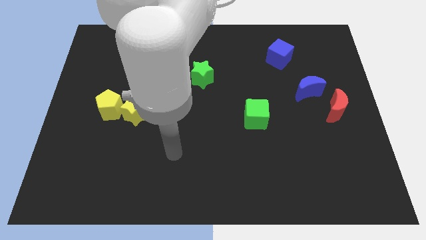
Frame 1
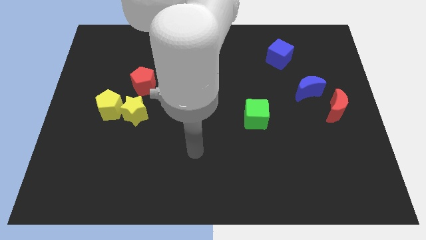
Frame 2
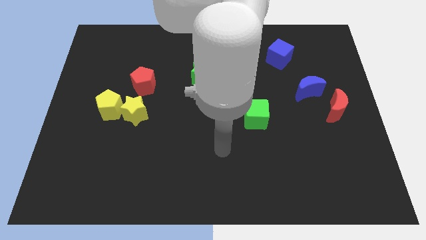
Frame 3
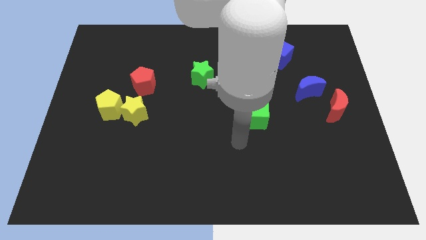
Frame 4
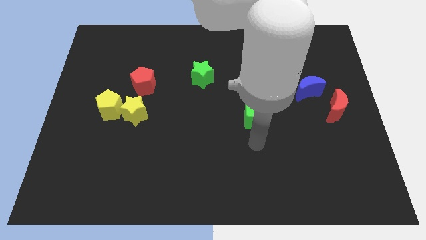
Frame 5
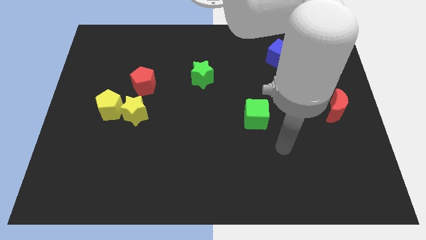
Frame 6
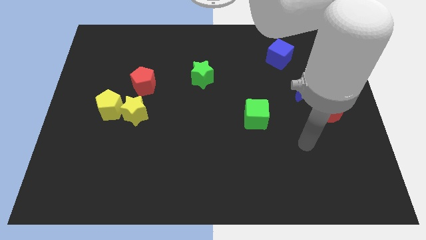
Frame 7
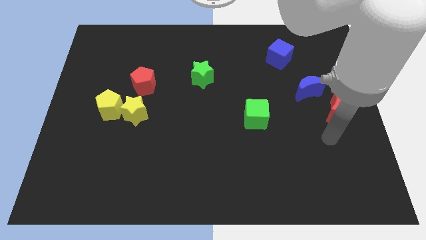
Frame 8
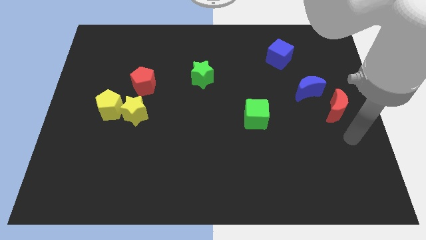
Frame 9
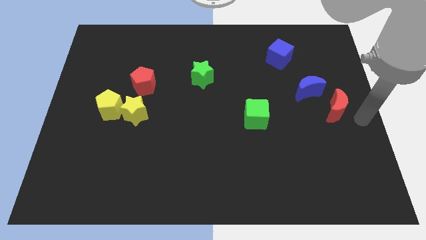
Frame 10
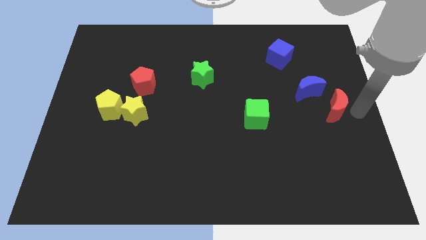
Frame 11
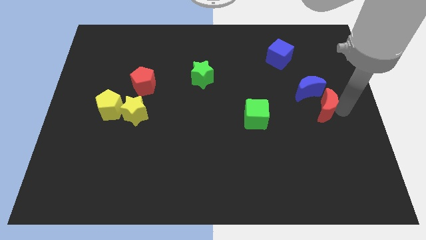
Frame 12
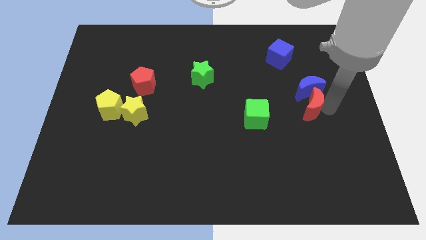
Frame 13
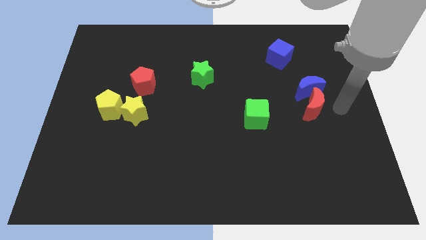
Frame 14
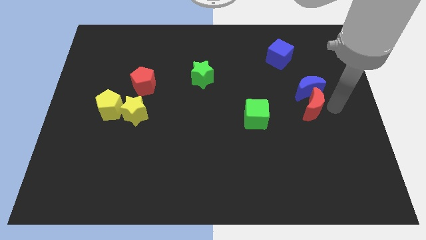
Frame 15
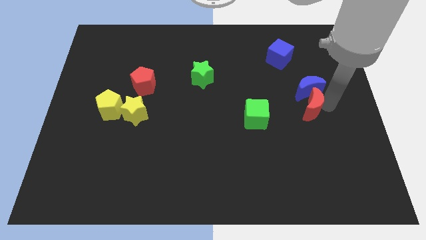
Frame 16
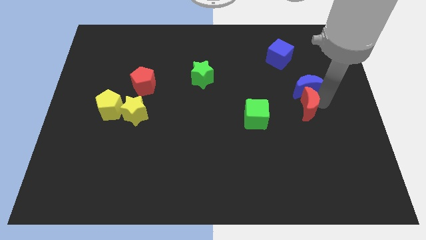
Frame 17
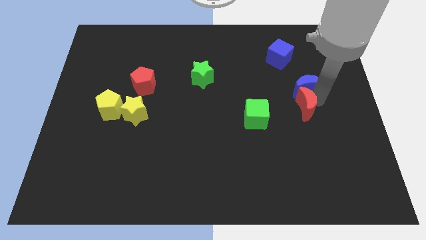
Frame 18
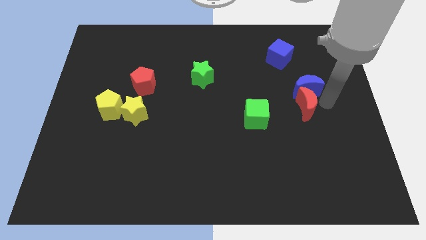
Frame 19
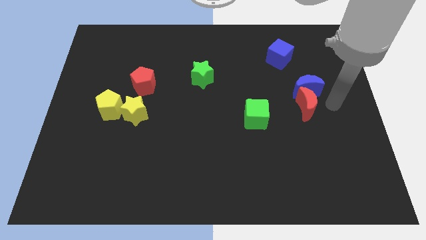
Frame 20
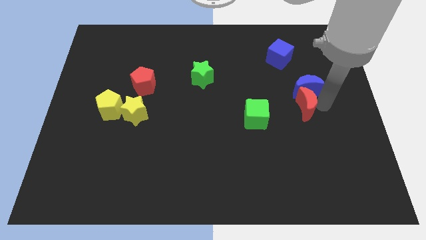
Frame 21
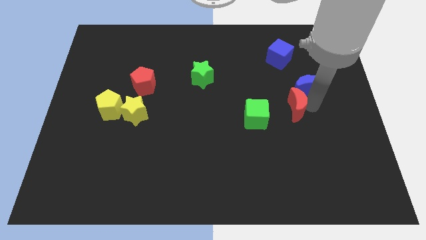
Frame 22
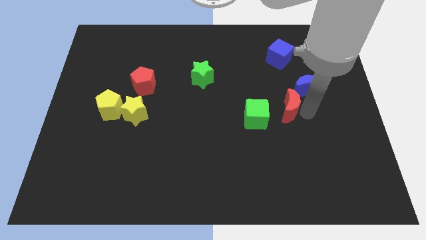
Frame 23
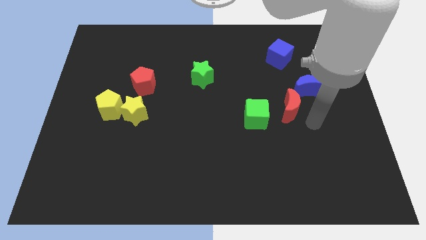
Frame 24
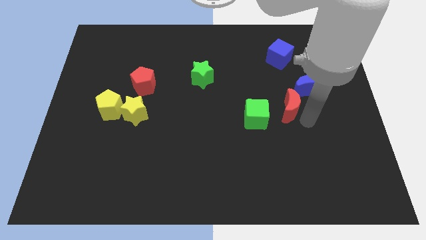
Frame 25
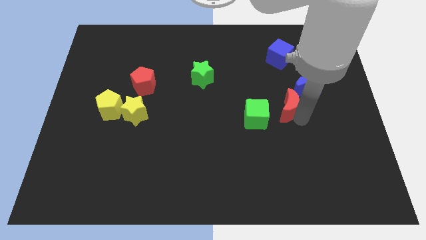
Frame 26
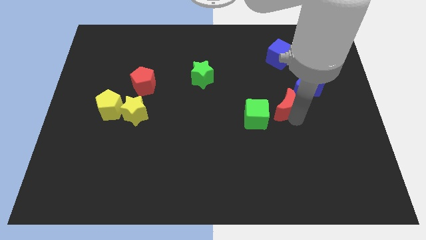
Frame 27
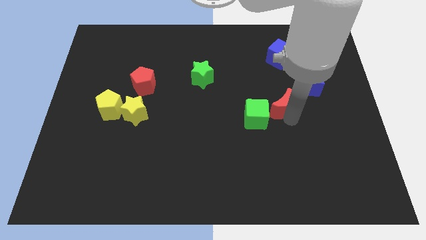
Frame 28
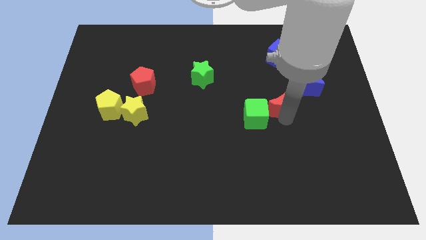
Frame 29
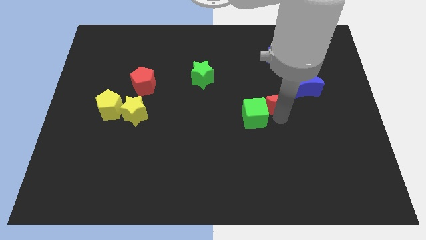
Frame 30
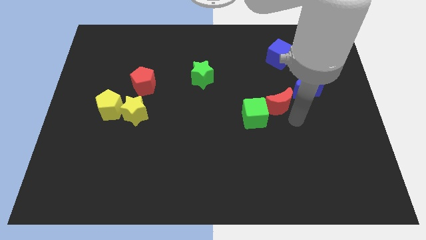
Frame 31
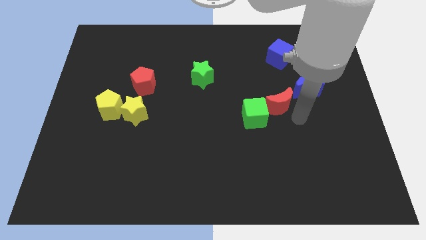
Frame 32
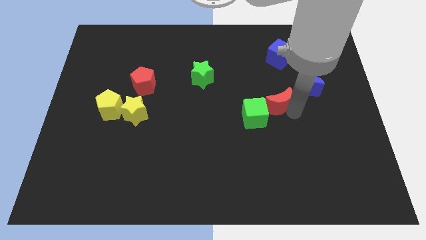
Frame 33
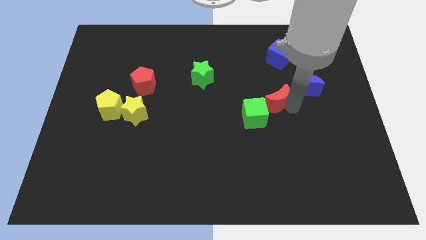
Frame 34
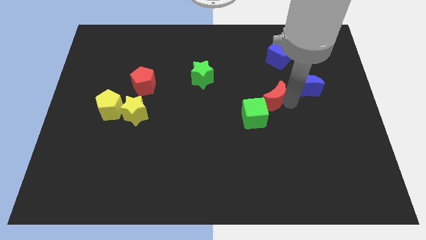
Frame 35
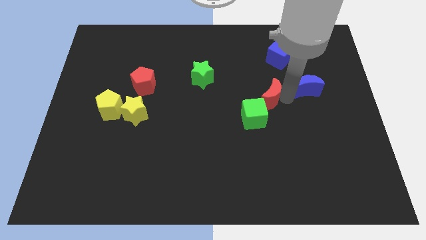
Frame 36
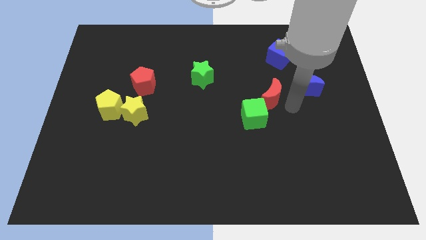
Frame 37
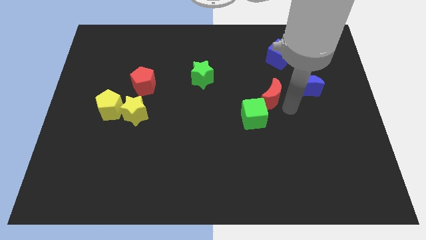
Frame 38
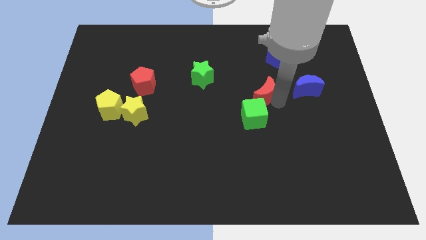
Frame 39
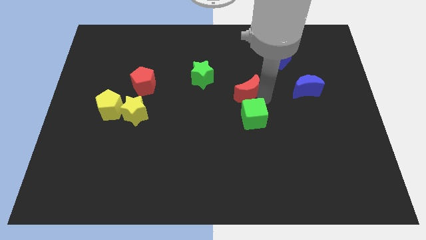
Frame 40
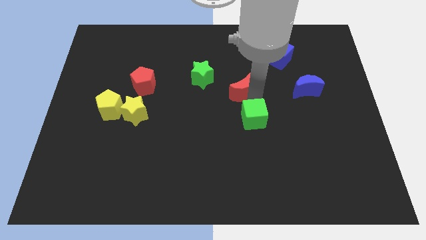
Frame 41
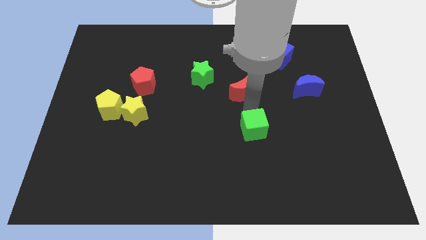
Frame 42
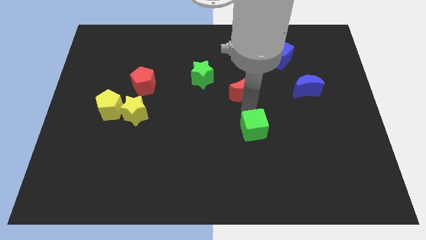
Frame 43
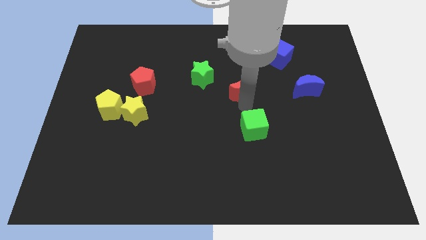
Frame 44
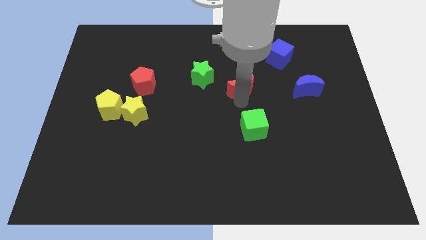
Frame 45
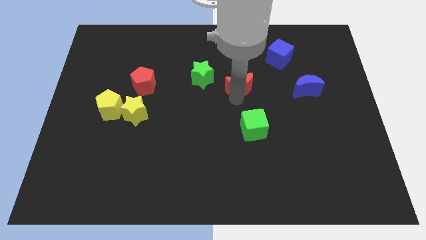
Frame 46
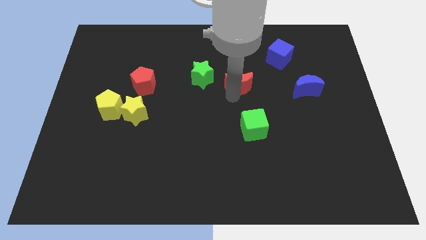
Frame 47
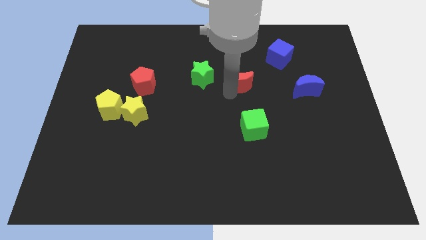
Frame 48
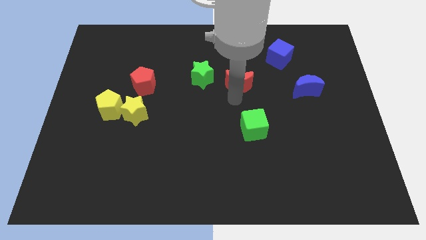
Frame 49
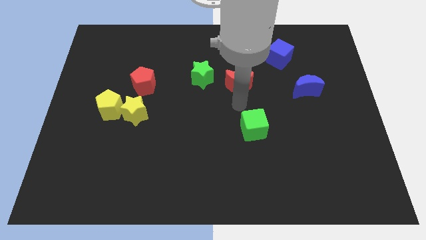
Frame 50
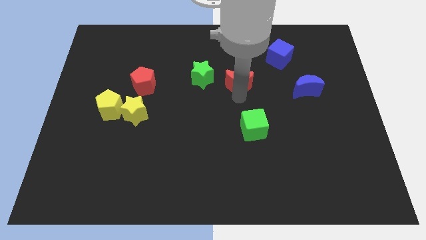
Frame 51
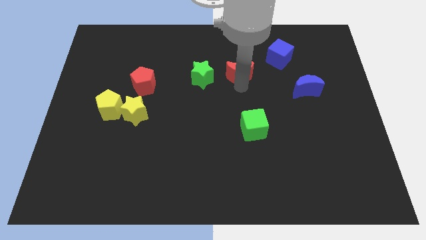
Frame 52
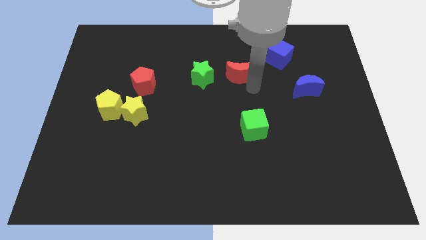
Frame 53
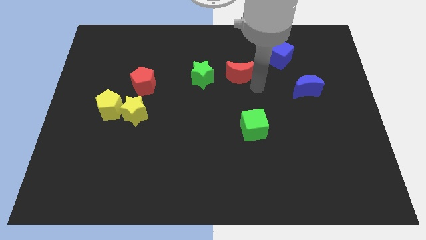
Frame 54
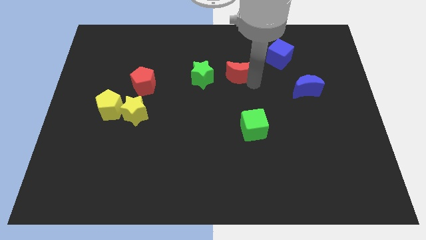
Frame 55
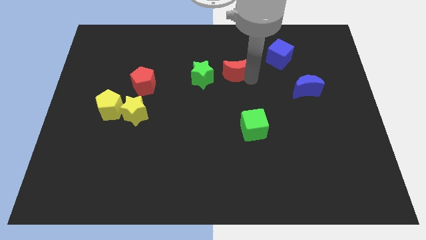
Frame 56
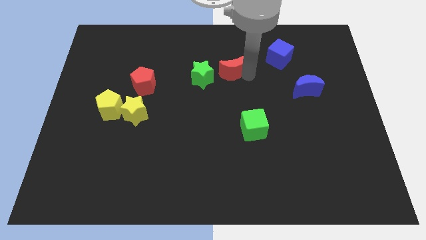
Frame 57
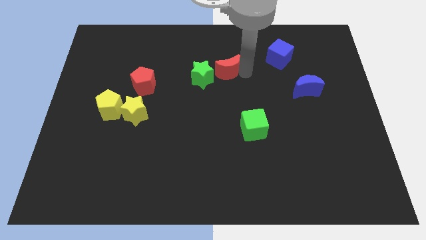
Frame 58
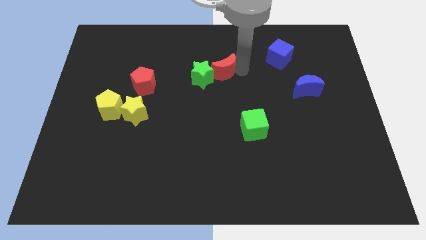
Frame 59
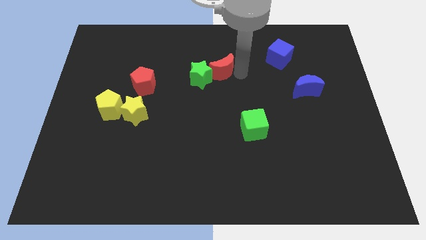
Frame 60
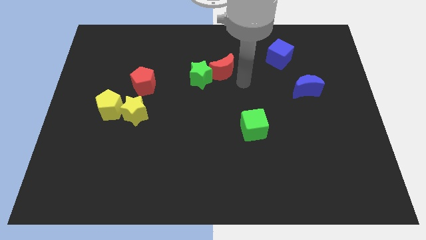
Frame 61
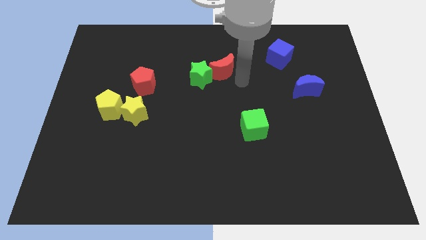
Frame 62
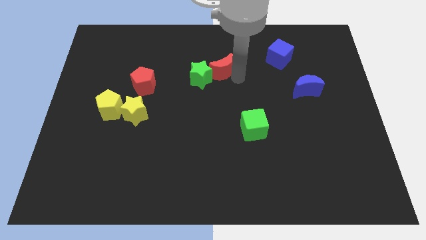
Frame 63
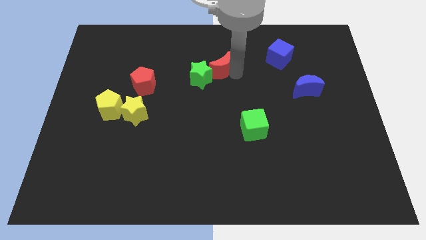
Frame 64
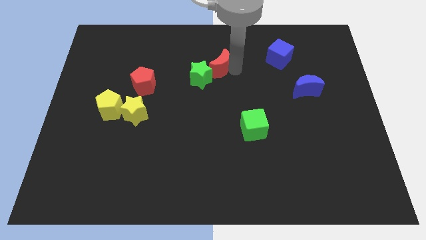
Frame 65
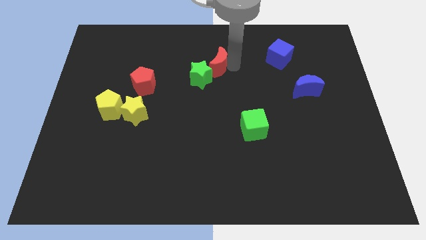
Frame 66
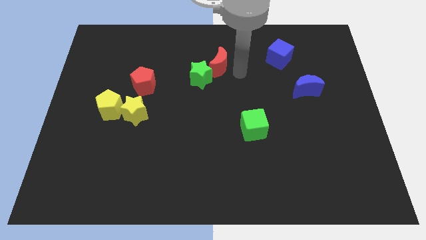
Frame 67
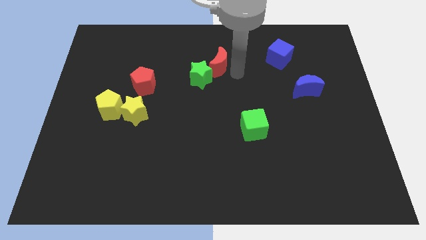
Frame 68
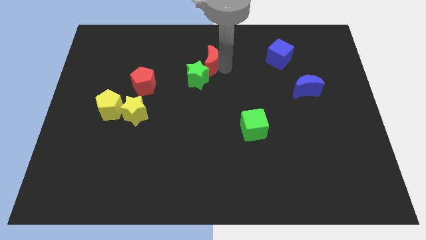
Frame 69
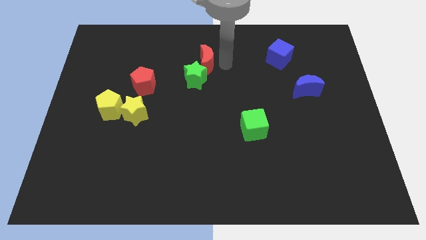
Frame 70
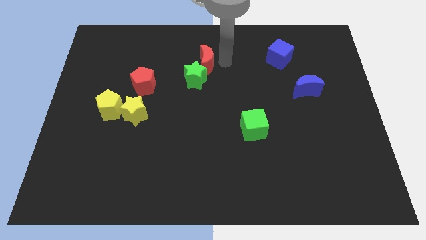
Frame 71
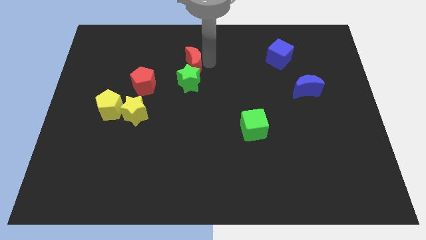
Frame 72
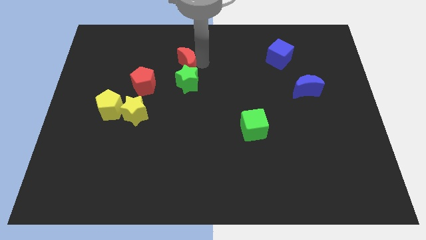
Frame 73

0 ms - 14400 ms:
slide the red moon to the top left side of the green star
